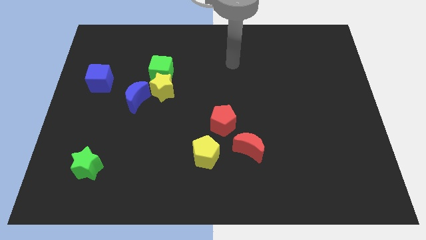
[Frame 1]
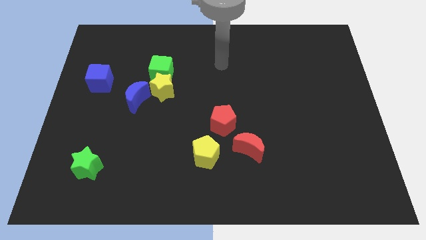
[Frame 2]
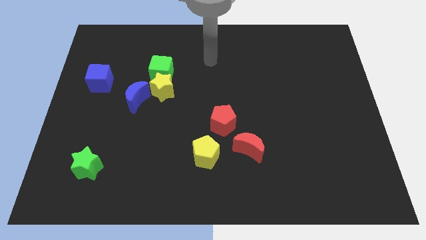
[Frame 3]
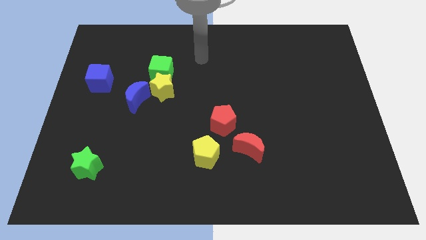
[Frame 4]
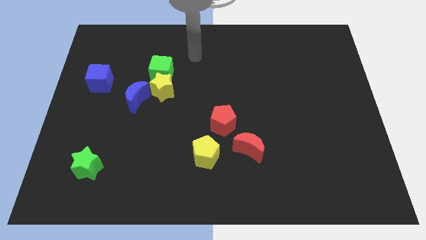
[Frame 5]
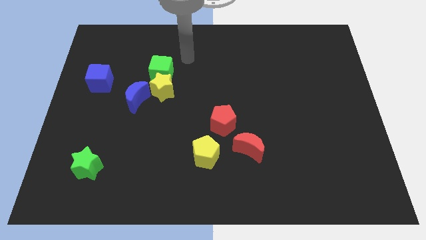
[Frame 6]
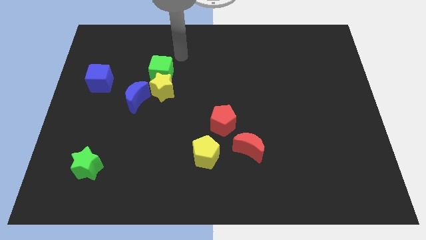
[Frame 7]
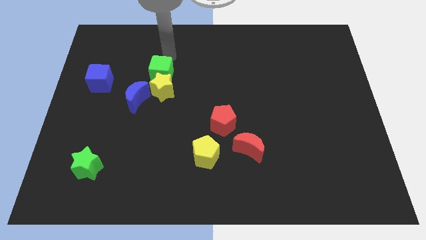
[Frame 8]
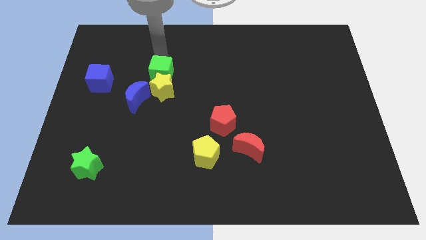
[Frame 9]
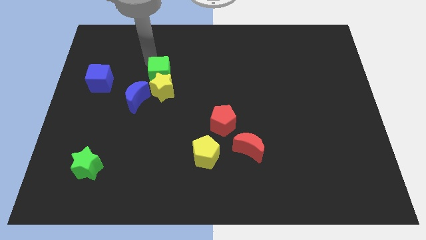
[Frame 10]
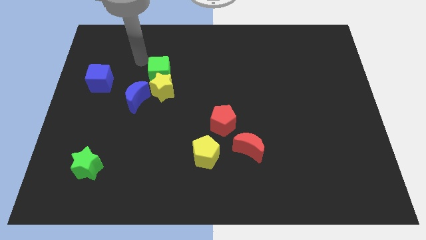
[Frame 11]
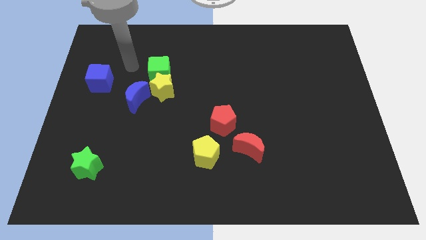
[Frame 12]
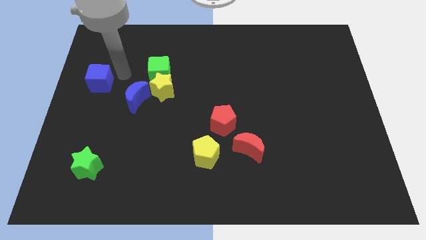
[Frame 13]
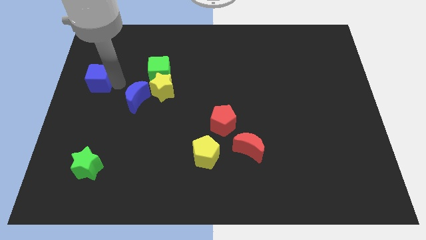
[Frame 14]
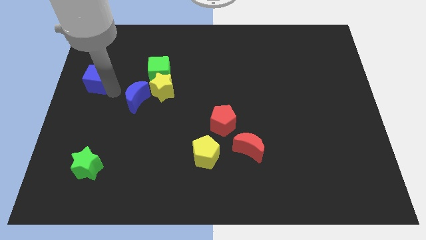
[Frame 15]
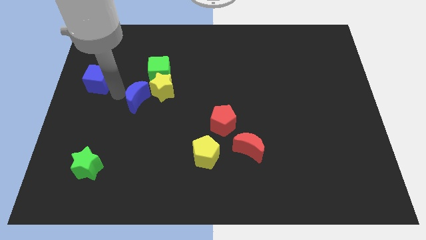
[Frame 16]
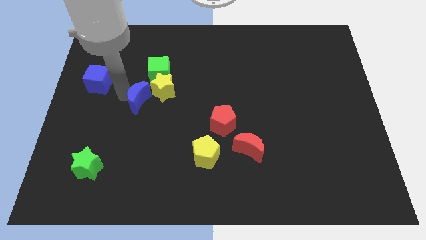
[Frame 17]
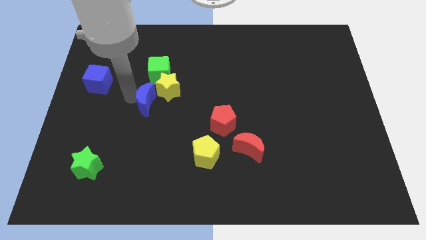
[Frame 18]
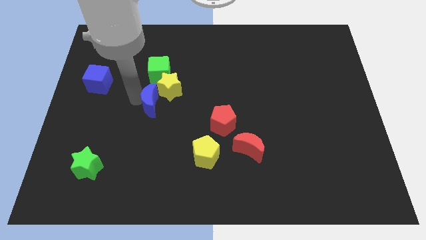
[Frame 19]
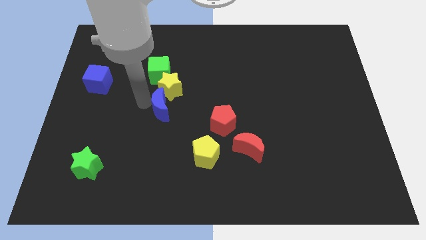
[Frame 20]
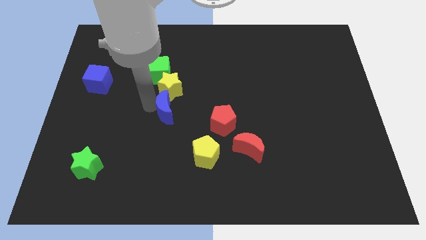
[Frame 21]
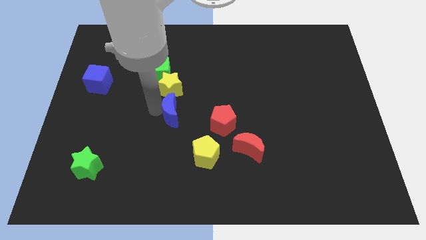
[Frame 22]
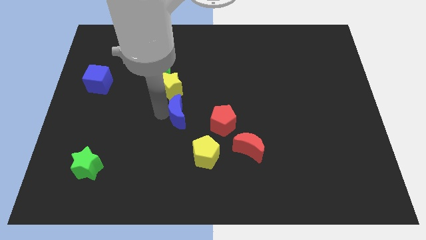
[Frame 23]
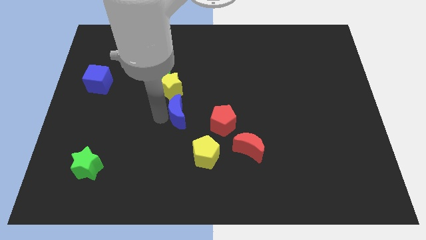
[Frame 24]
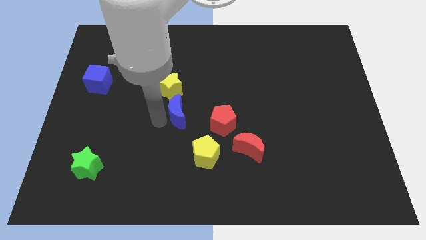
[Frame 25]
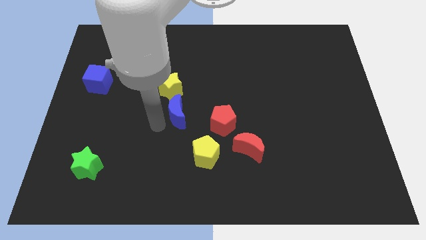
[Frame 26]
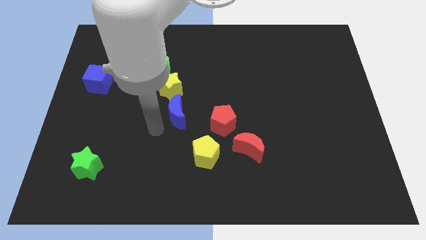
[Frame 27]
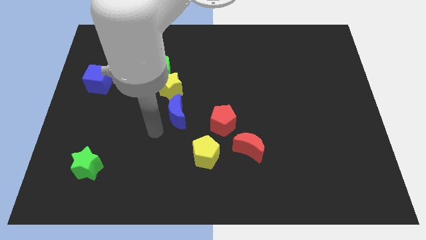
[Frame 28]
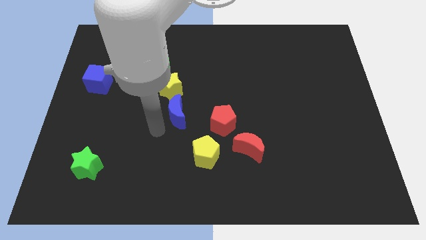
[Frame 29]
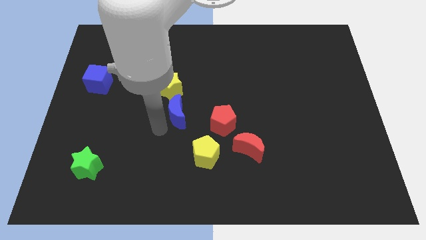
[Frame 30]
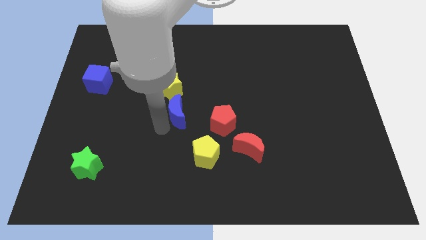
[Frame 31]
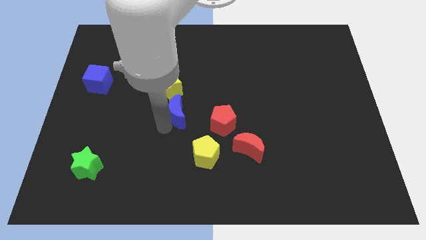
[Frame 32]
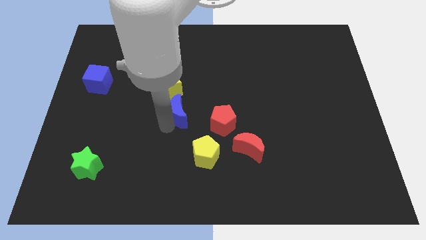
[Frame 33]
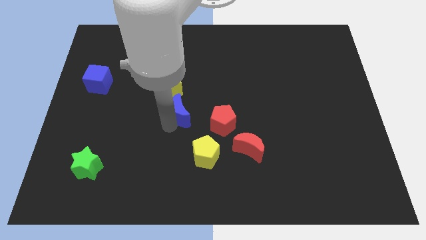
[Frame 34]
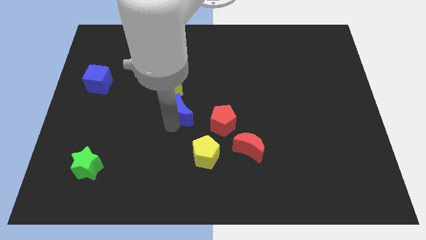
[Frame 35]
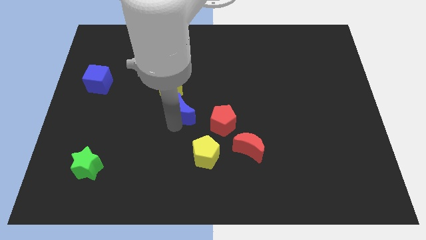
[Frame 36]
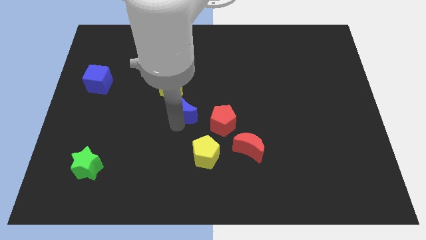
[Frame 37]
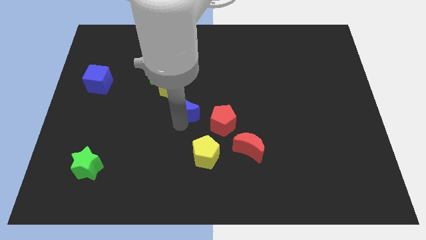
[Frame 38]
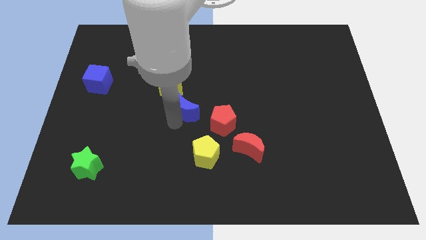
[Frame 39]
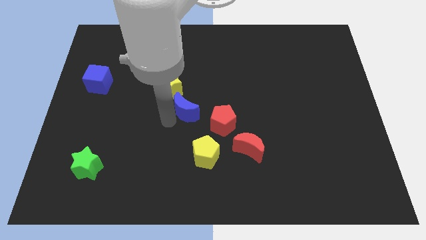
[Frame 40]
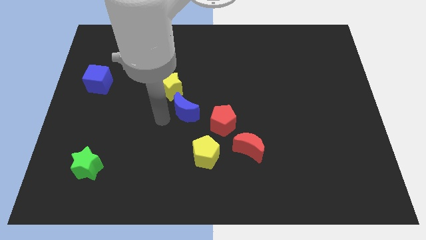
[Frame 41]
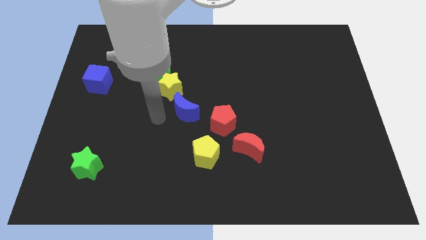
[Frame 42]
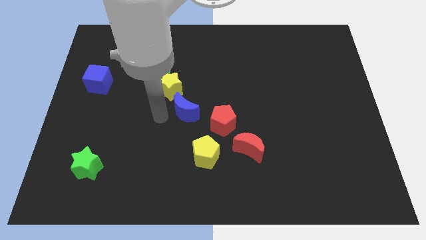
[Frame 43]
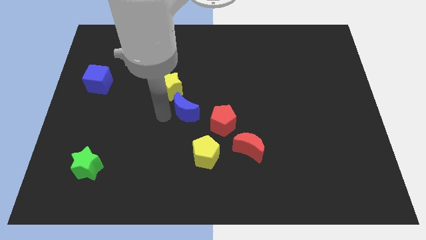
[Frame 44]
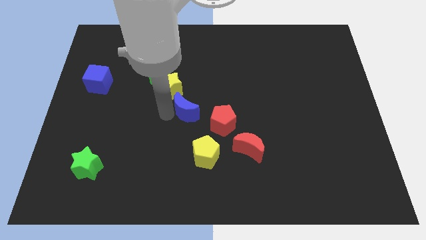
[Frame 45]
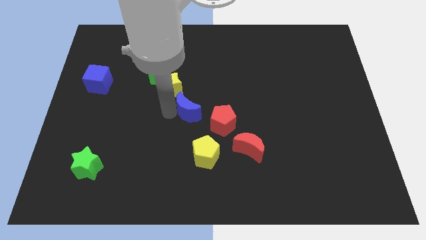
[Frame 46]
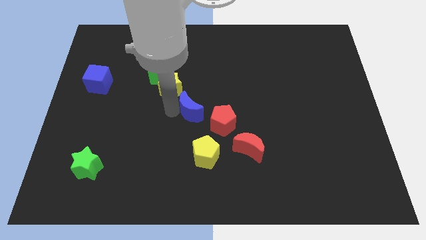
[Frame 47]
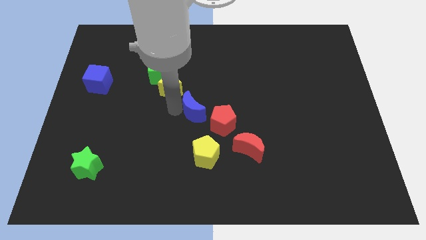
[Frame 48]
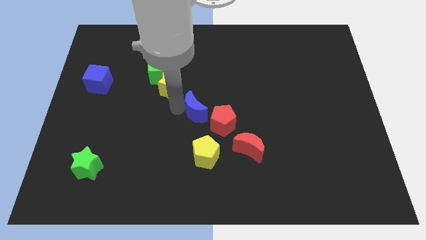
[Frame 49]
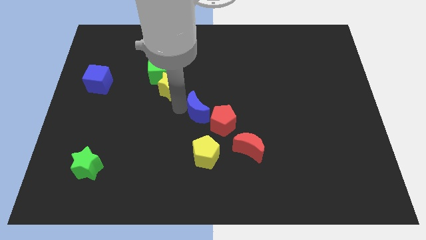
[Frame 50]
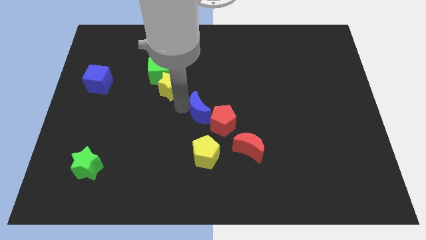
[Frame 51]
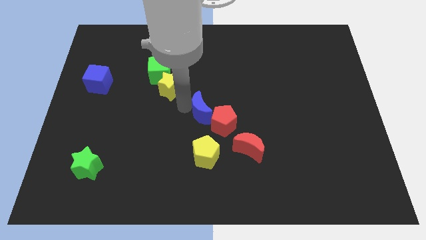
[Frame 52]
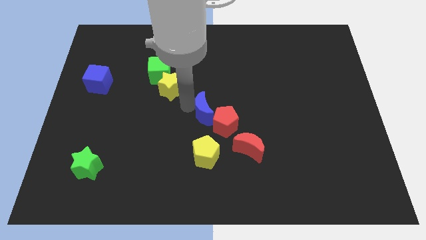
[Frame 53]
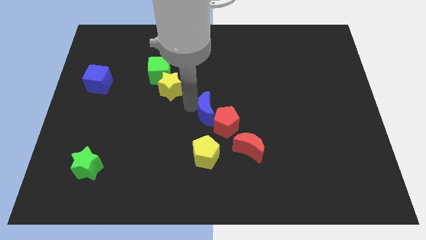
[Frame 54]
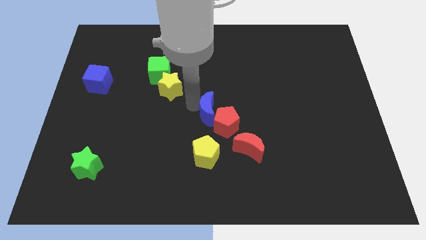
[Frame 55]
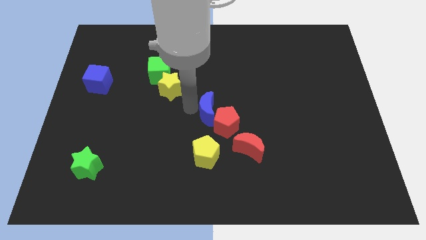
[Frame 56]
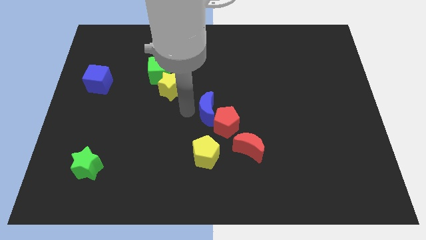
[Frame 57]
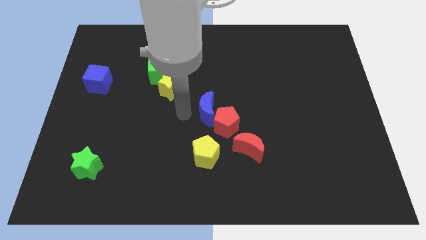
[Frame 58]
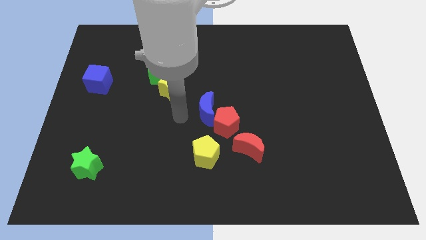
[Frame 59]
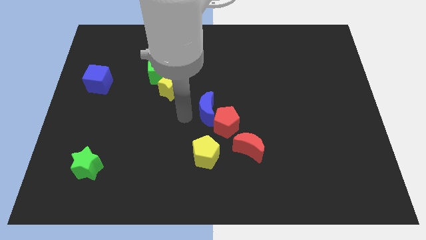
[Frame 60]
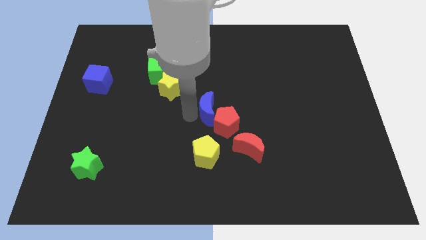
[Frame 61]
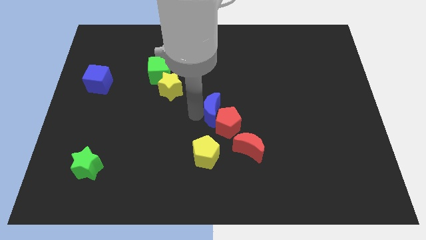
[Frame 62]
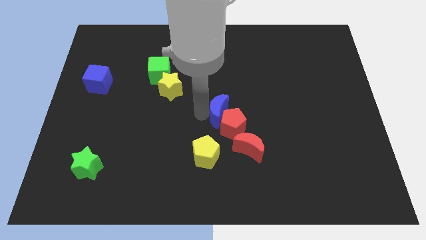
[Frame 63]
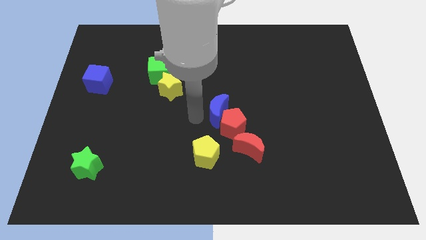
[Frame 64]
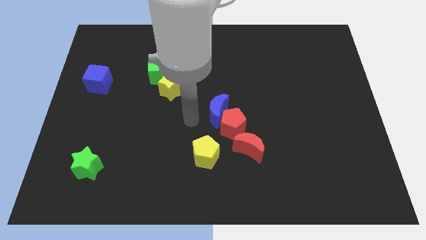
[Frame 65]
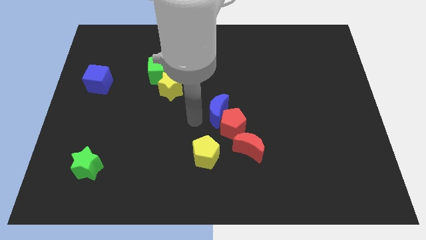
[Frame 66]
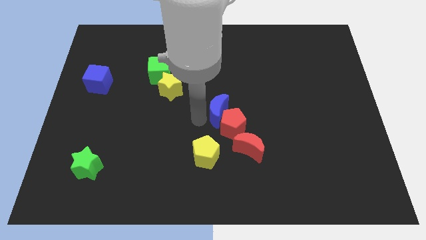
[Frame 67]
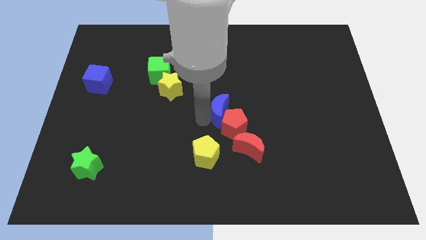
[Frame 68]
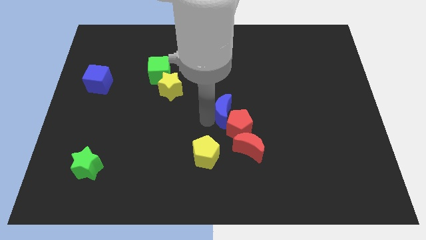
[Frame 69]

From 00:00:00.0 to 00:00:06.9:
move the blue moon to the right

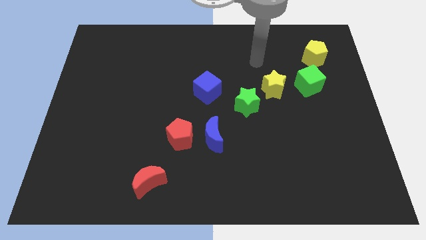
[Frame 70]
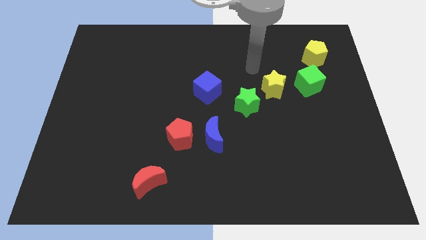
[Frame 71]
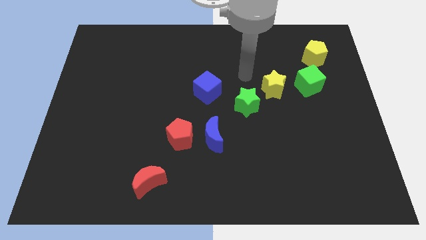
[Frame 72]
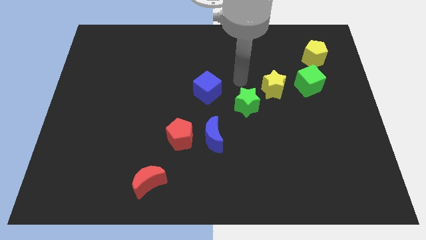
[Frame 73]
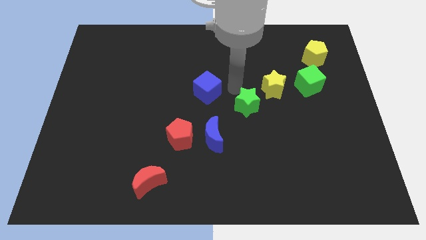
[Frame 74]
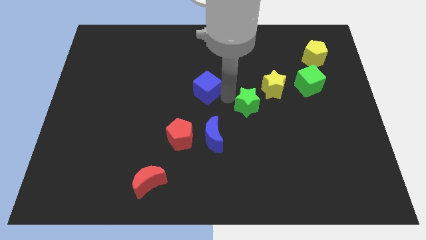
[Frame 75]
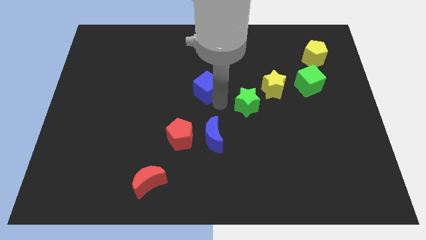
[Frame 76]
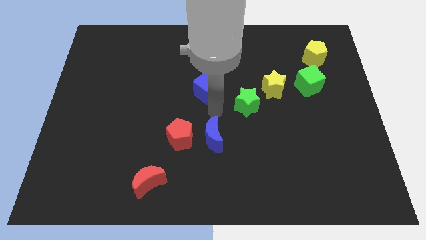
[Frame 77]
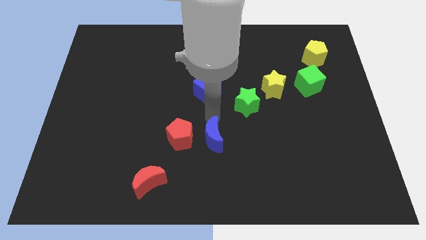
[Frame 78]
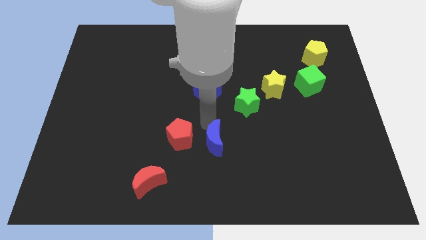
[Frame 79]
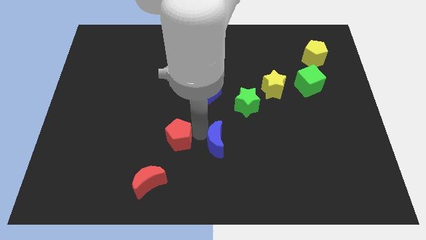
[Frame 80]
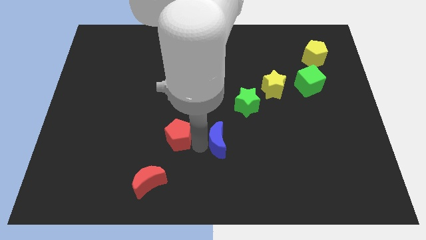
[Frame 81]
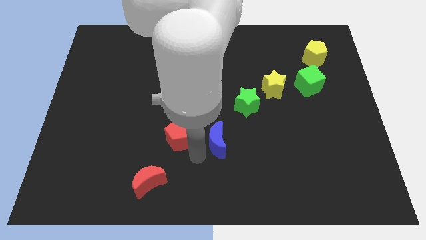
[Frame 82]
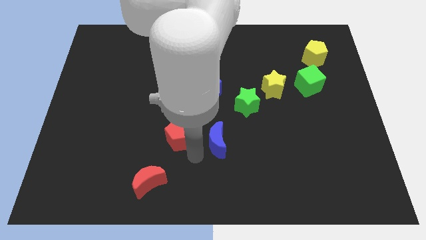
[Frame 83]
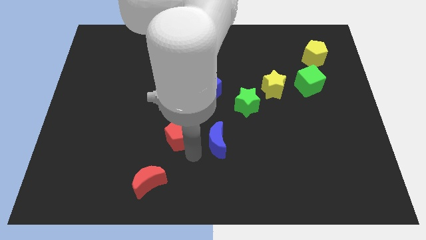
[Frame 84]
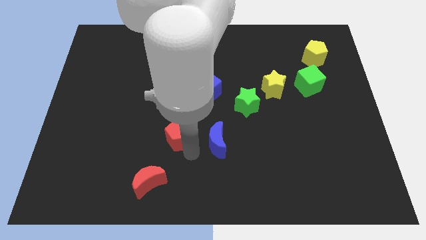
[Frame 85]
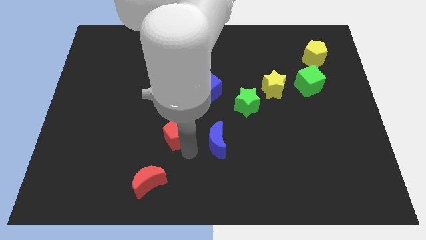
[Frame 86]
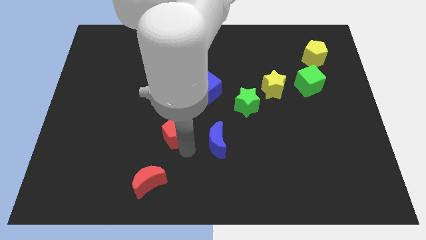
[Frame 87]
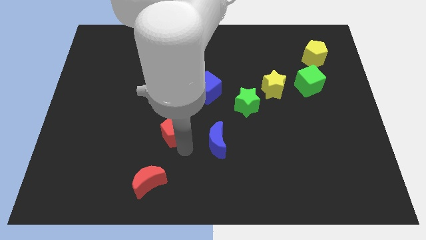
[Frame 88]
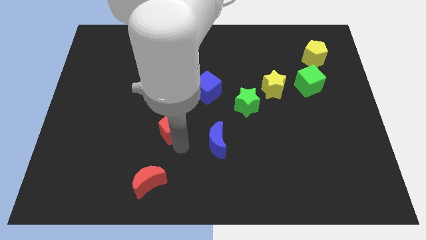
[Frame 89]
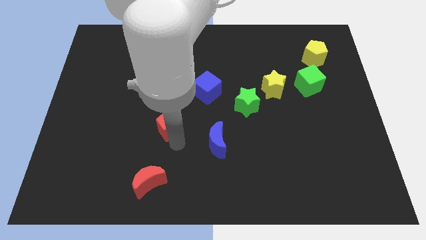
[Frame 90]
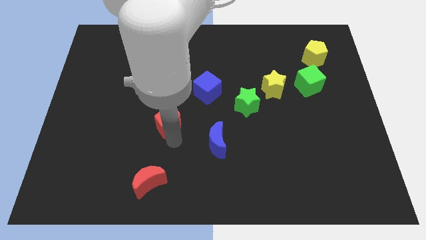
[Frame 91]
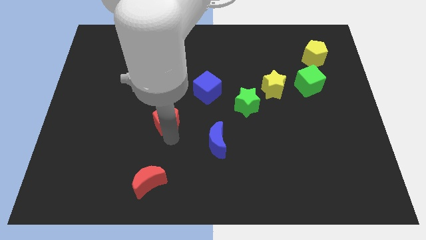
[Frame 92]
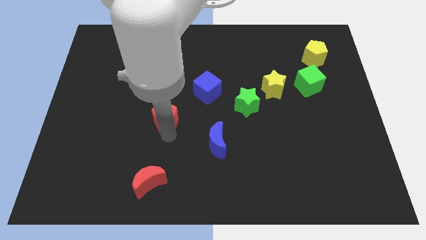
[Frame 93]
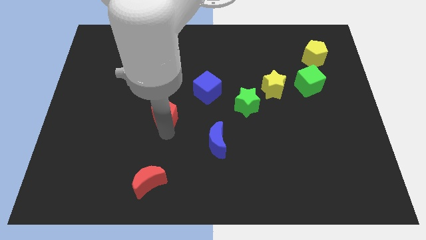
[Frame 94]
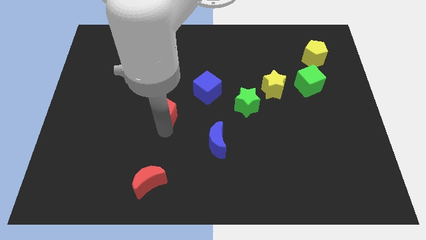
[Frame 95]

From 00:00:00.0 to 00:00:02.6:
slightly push the red pentagon upwards and to the left
